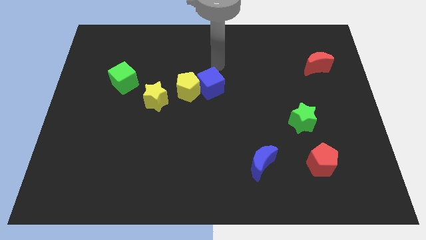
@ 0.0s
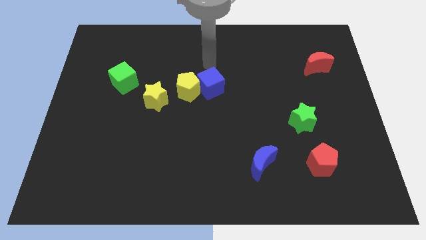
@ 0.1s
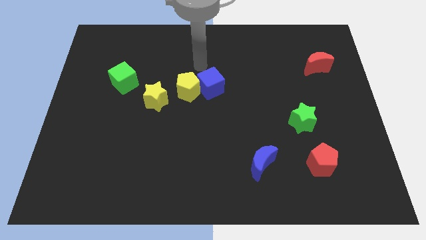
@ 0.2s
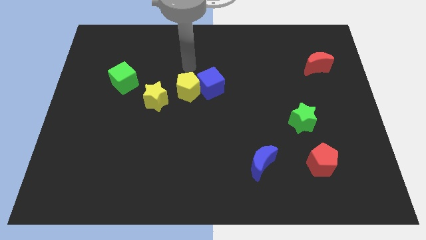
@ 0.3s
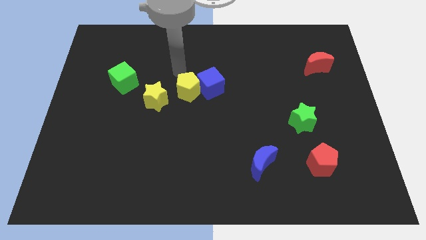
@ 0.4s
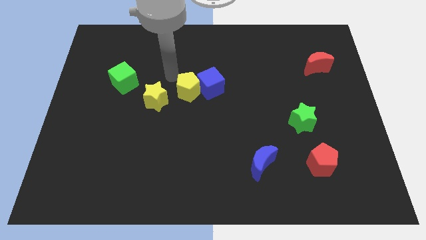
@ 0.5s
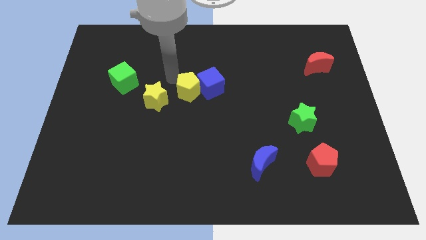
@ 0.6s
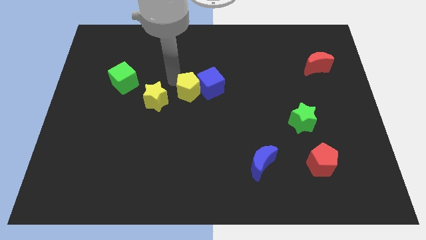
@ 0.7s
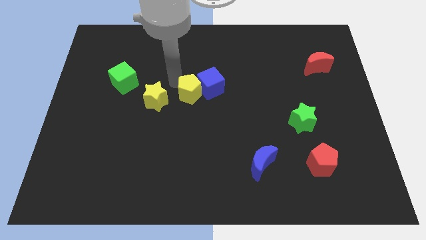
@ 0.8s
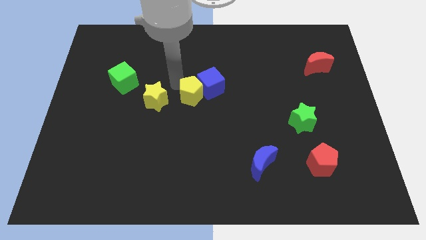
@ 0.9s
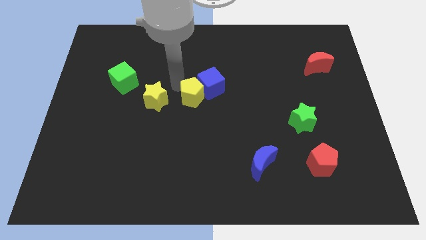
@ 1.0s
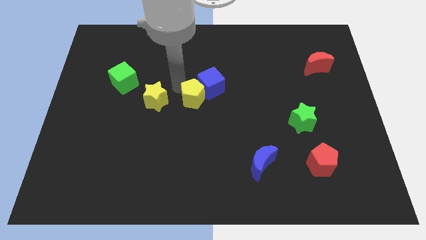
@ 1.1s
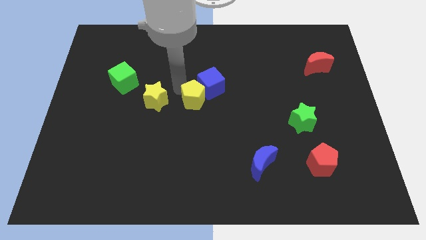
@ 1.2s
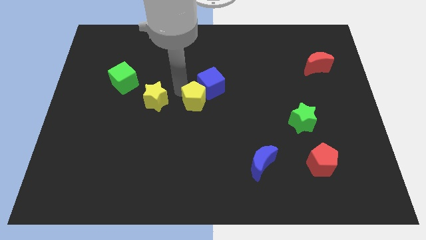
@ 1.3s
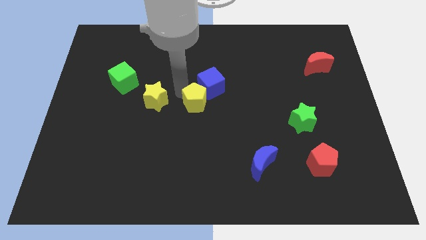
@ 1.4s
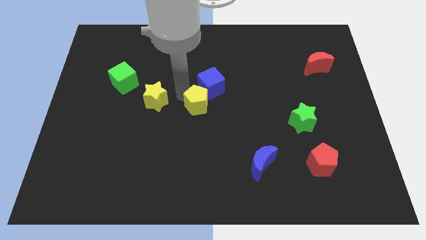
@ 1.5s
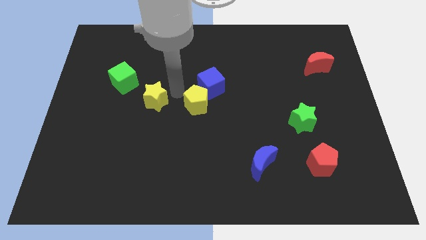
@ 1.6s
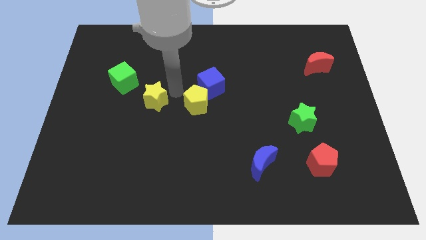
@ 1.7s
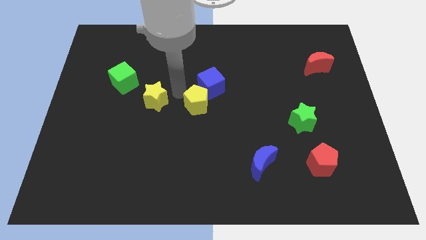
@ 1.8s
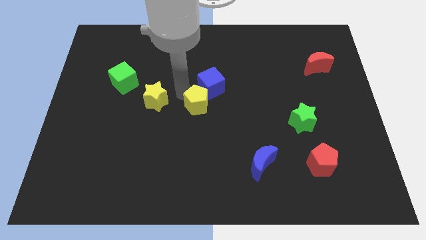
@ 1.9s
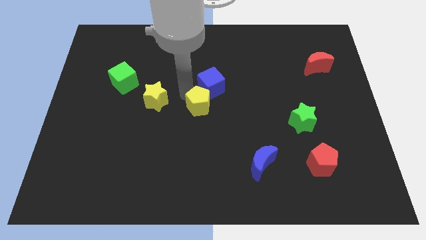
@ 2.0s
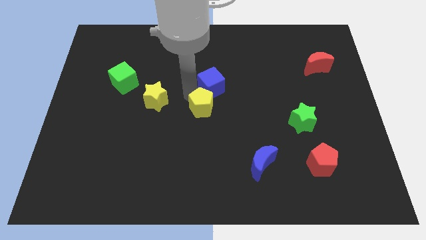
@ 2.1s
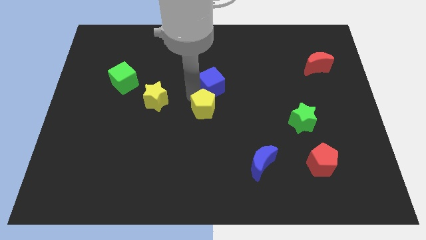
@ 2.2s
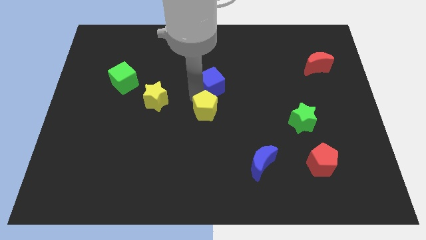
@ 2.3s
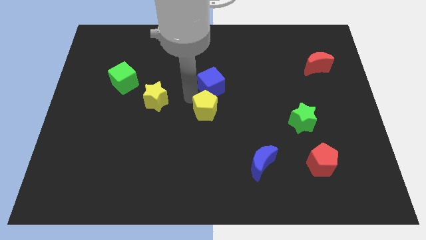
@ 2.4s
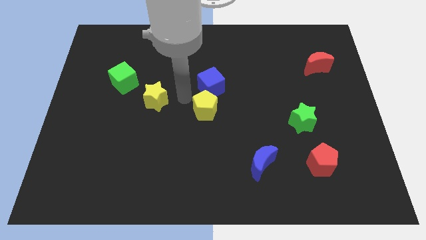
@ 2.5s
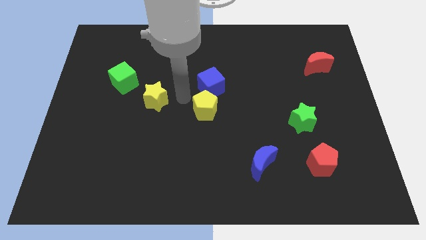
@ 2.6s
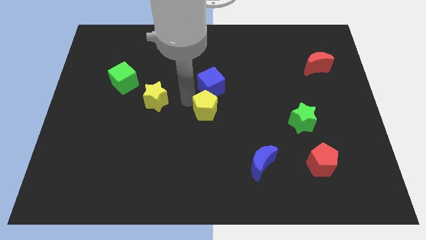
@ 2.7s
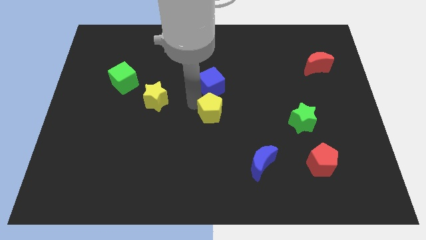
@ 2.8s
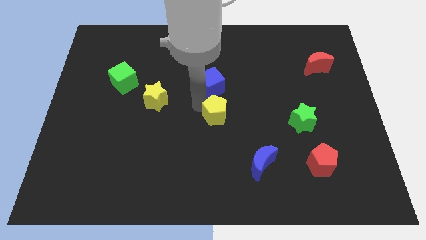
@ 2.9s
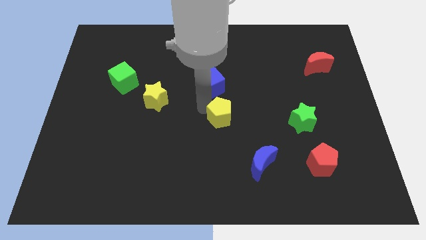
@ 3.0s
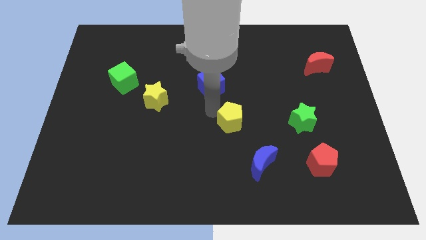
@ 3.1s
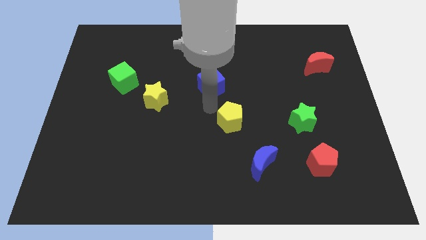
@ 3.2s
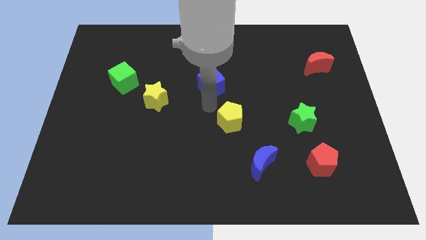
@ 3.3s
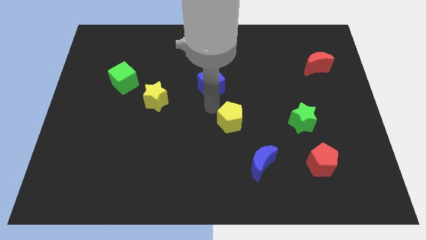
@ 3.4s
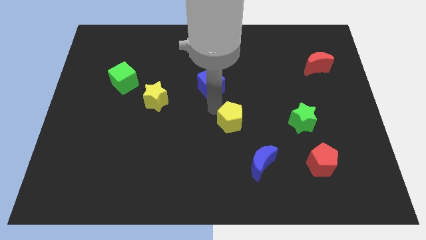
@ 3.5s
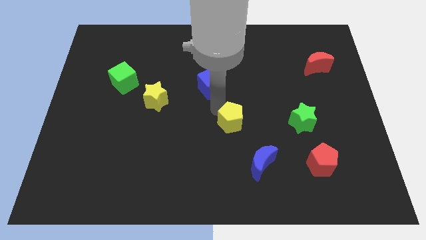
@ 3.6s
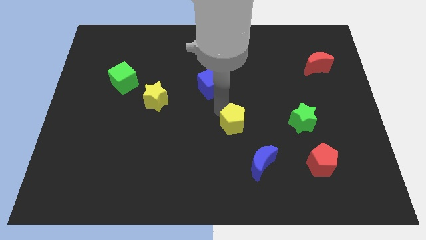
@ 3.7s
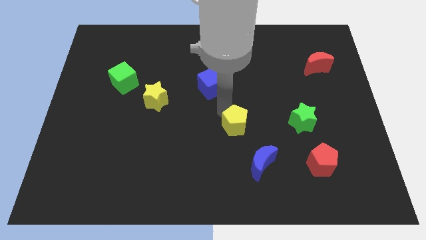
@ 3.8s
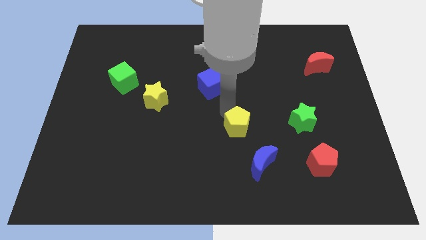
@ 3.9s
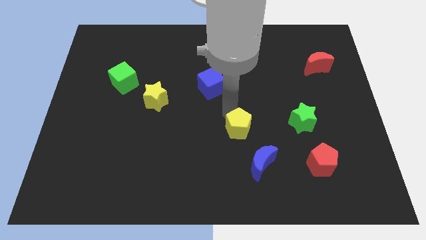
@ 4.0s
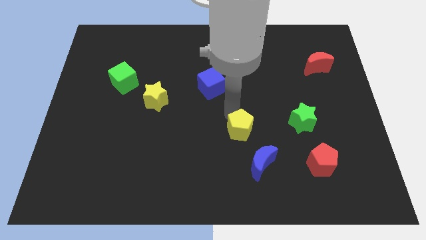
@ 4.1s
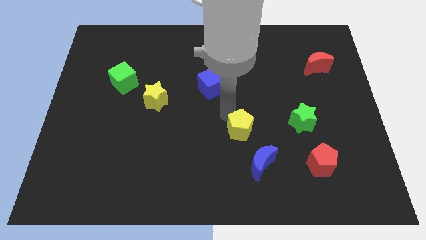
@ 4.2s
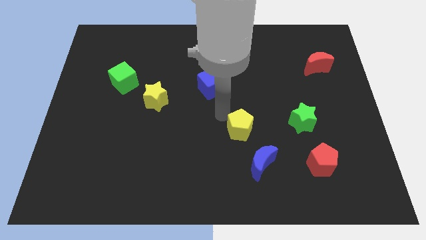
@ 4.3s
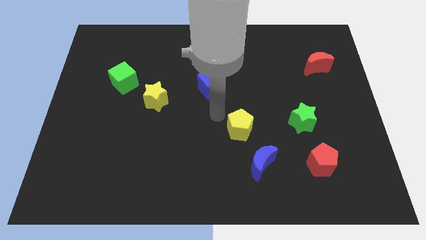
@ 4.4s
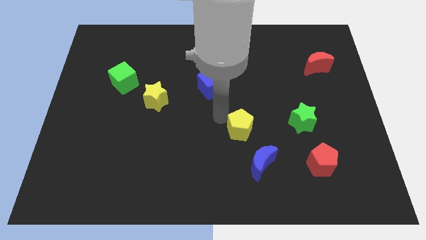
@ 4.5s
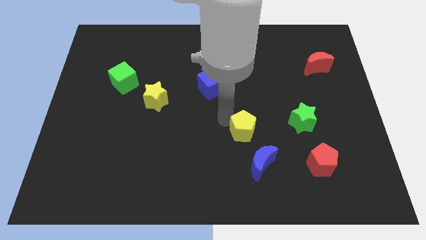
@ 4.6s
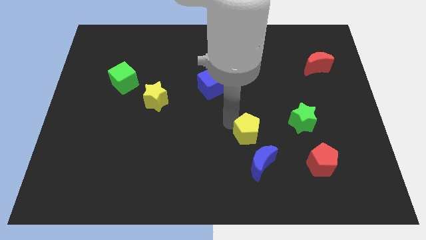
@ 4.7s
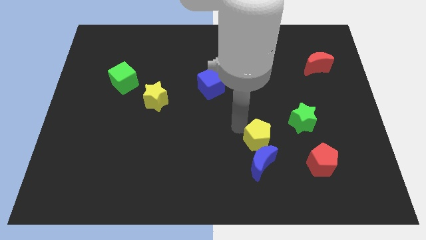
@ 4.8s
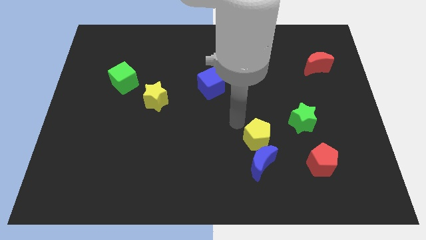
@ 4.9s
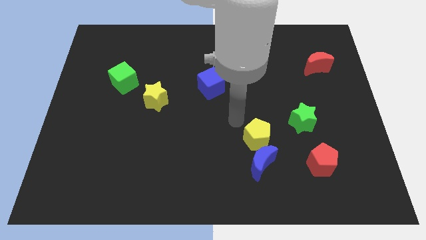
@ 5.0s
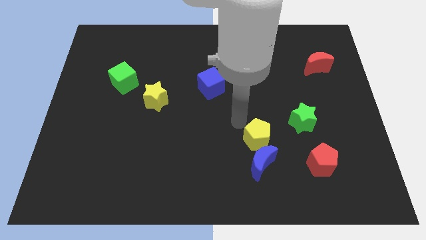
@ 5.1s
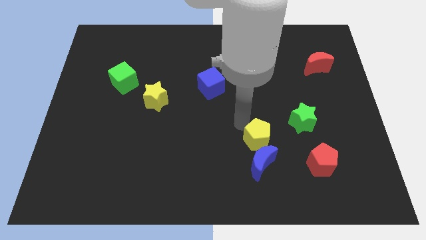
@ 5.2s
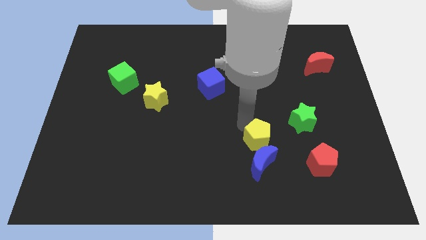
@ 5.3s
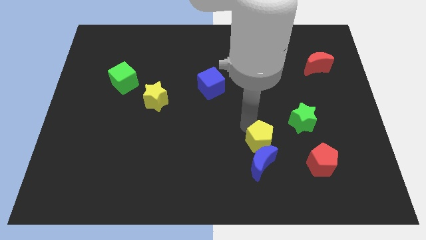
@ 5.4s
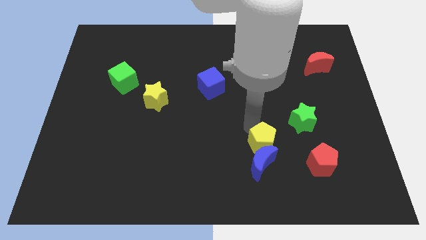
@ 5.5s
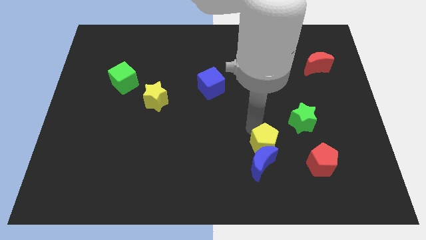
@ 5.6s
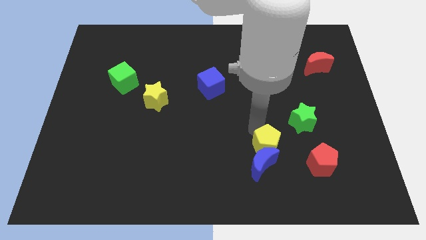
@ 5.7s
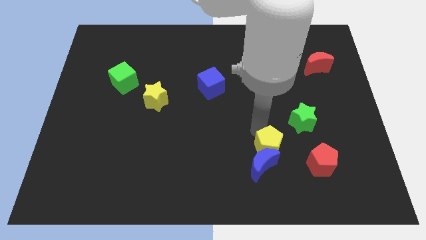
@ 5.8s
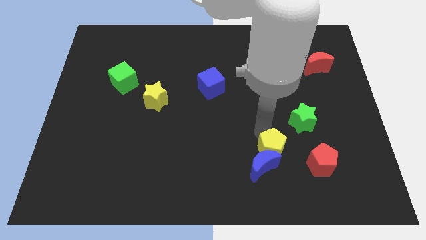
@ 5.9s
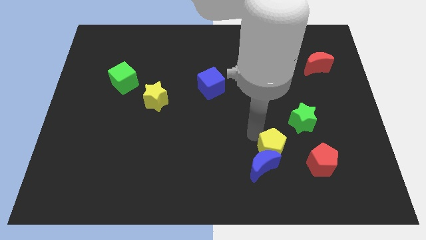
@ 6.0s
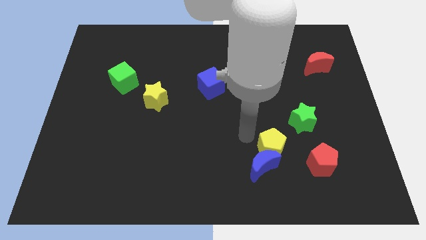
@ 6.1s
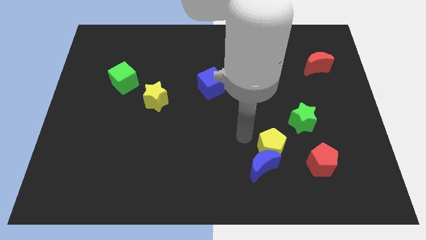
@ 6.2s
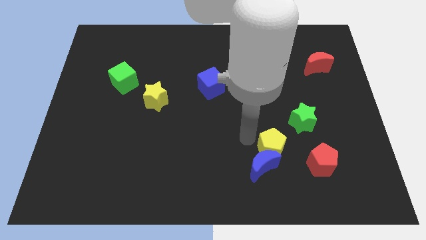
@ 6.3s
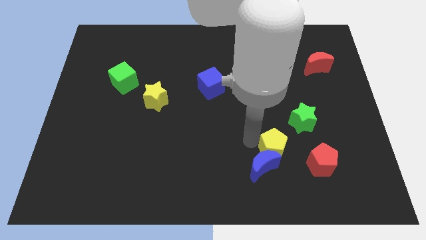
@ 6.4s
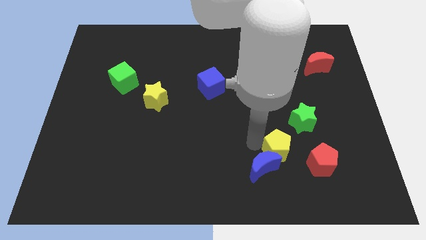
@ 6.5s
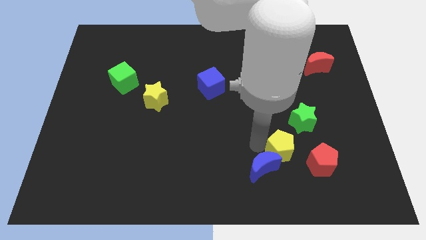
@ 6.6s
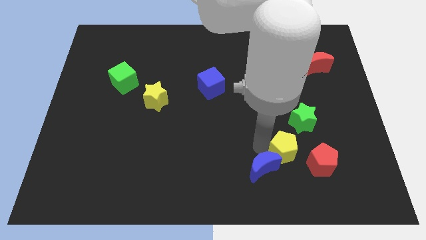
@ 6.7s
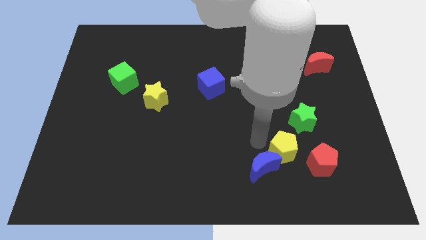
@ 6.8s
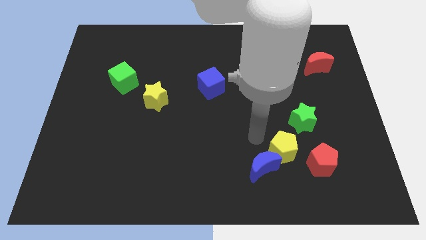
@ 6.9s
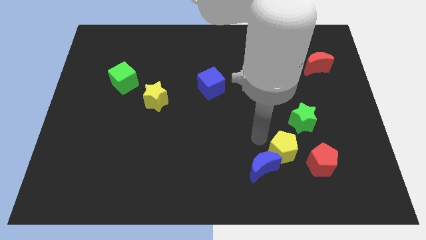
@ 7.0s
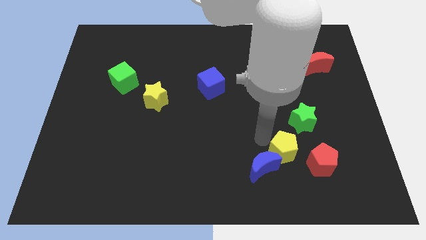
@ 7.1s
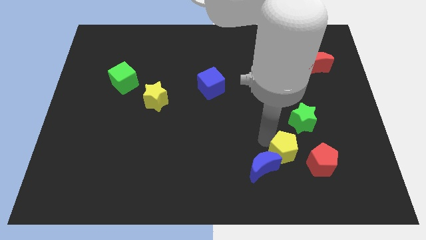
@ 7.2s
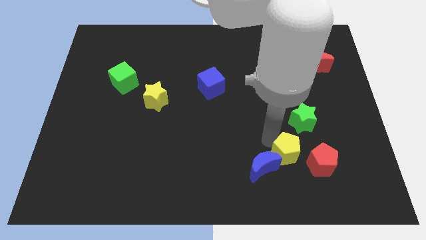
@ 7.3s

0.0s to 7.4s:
slide the yellow pentagon below the green star
